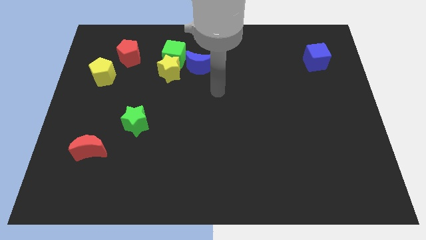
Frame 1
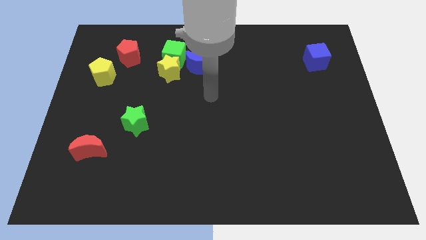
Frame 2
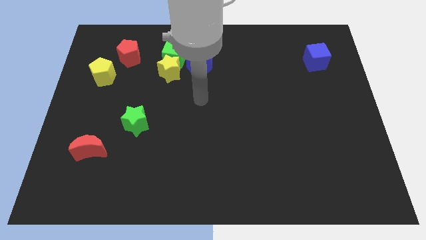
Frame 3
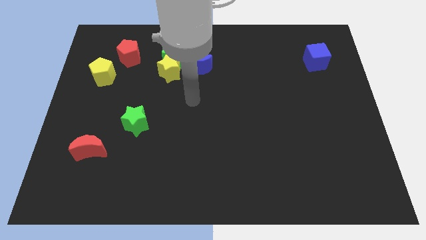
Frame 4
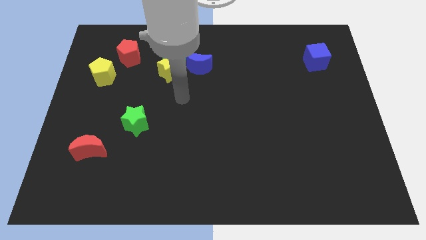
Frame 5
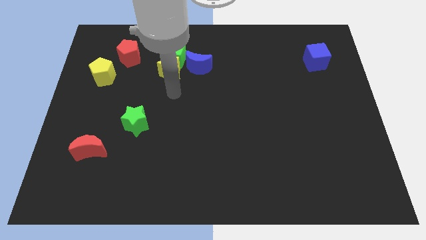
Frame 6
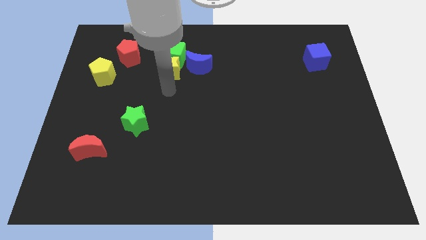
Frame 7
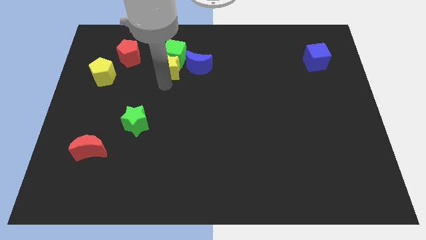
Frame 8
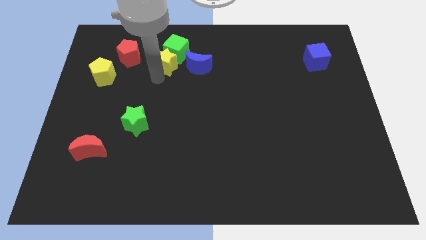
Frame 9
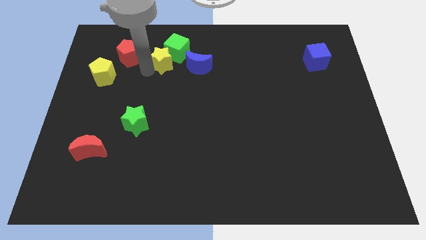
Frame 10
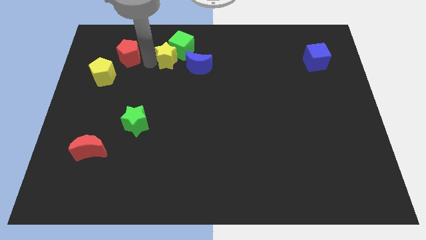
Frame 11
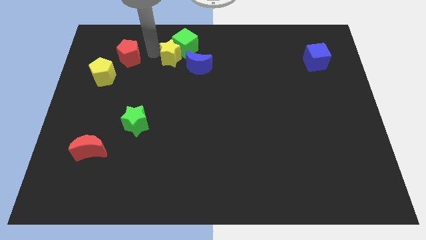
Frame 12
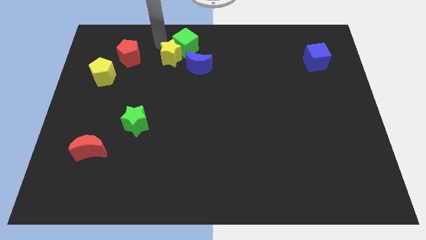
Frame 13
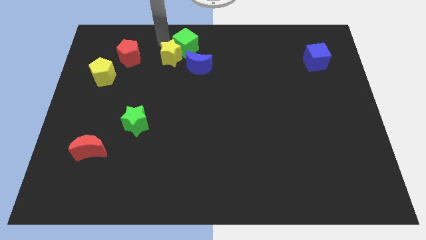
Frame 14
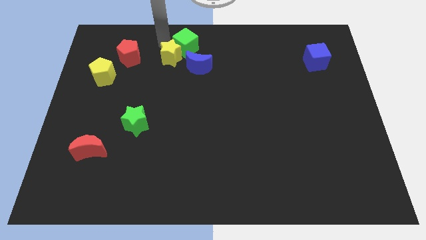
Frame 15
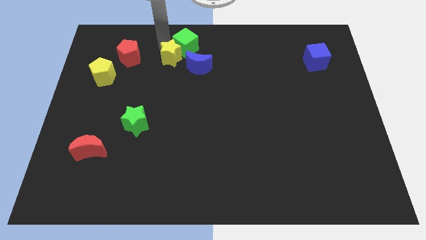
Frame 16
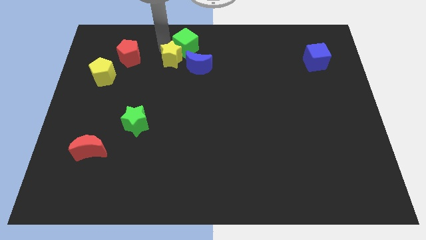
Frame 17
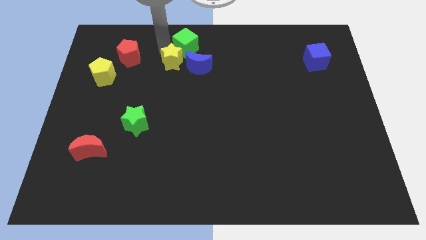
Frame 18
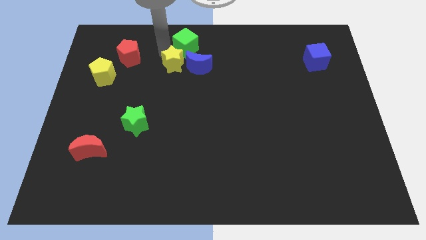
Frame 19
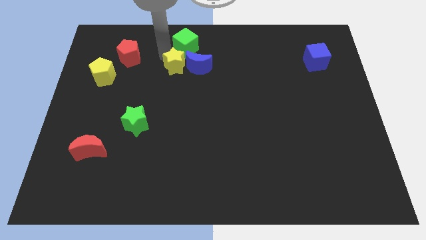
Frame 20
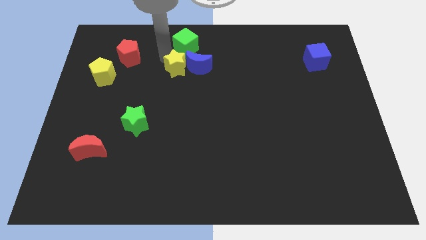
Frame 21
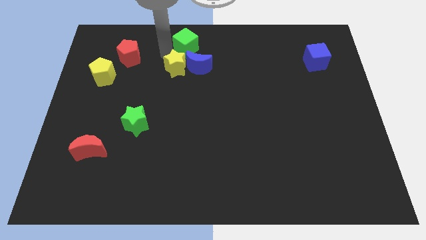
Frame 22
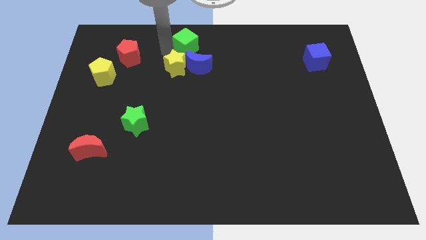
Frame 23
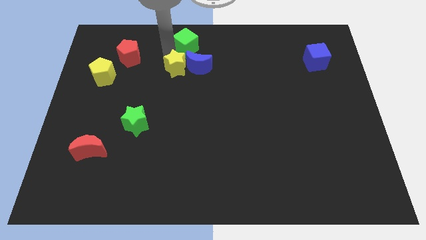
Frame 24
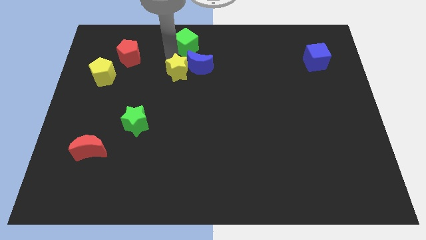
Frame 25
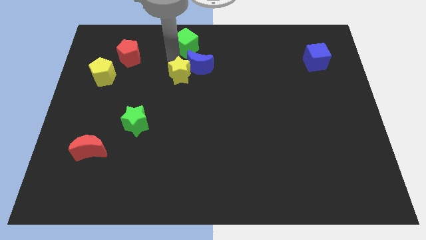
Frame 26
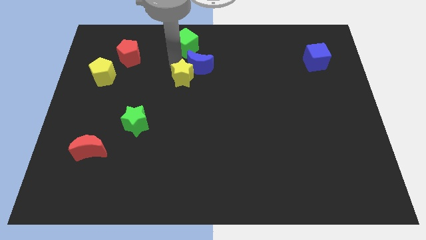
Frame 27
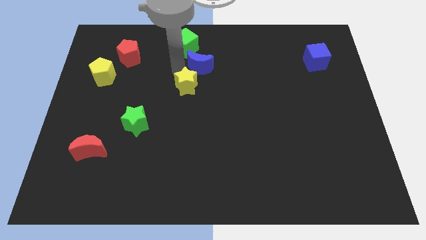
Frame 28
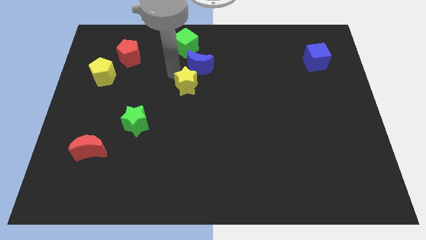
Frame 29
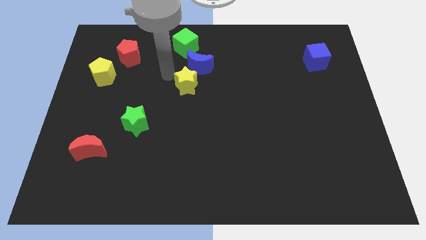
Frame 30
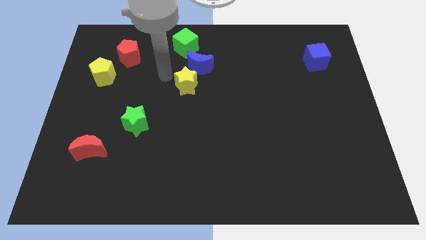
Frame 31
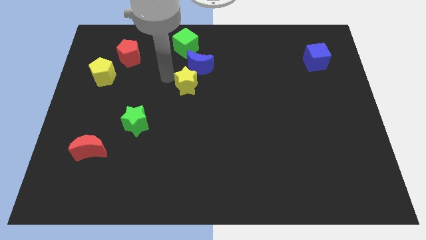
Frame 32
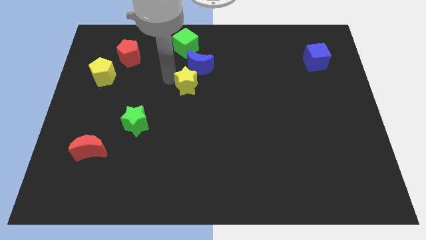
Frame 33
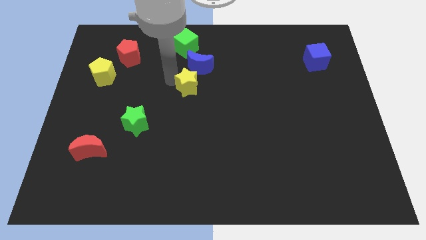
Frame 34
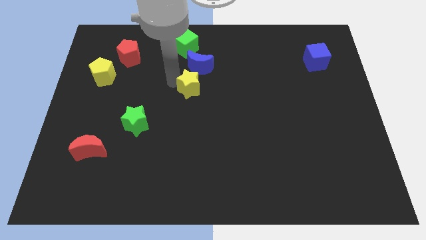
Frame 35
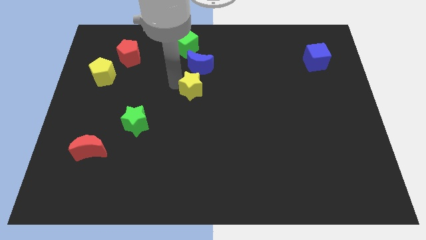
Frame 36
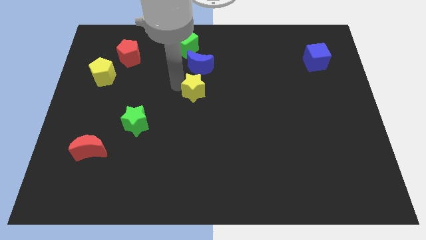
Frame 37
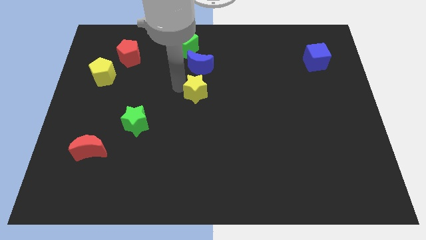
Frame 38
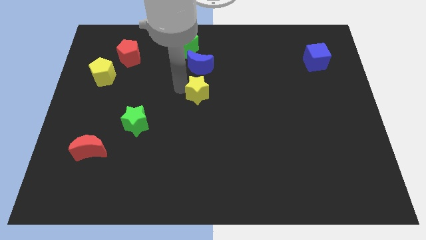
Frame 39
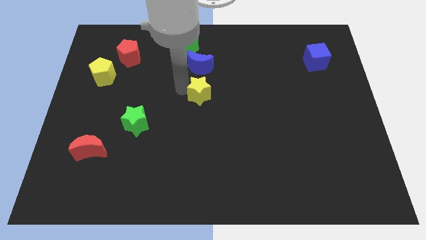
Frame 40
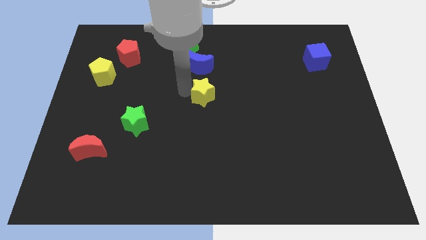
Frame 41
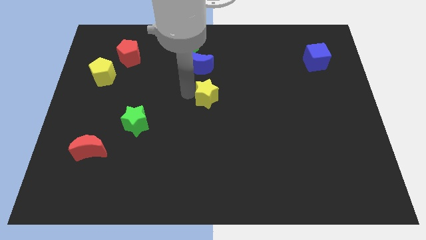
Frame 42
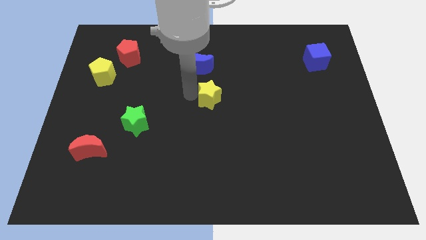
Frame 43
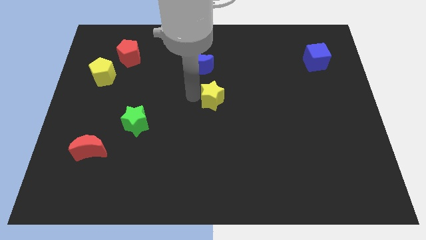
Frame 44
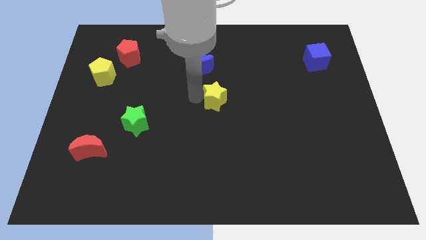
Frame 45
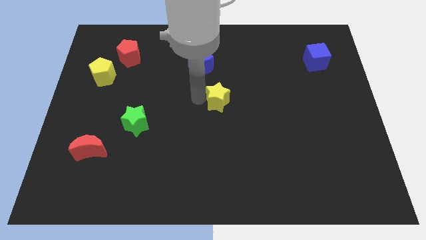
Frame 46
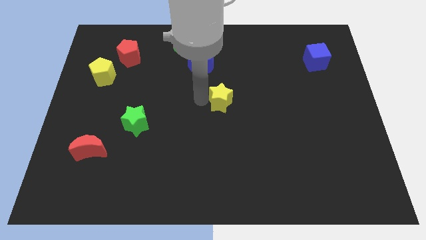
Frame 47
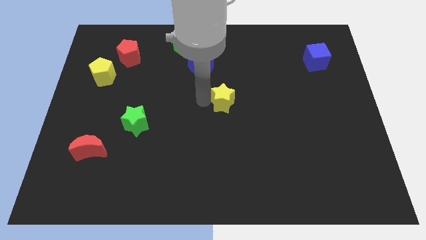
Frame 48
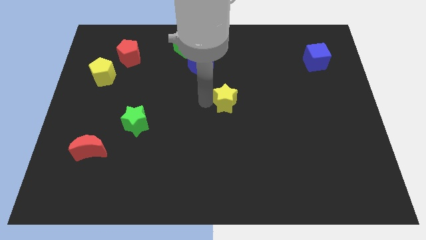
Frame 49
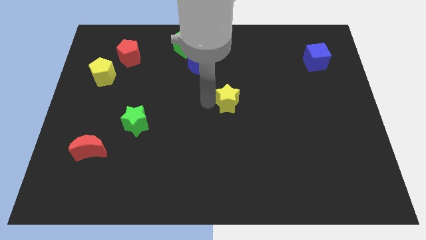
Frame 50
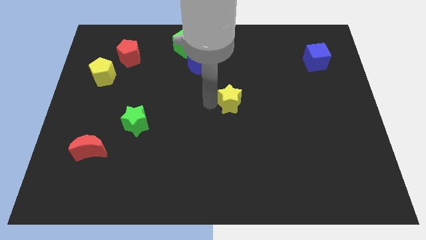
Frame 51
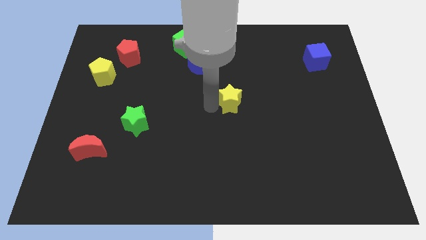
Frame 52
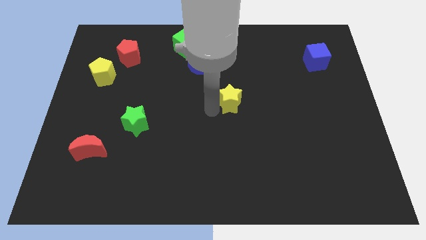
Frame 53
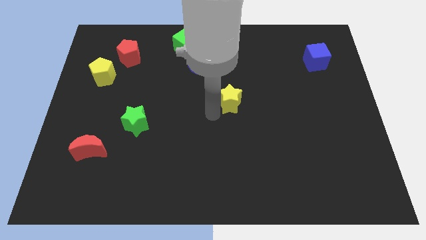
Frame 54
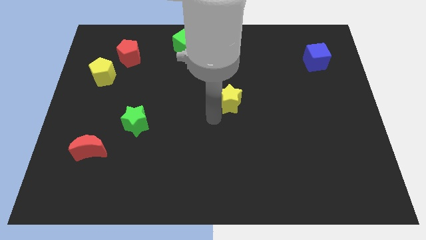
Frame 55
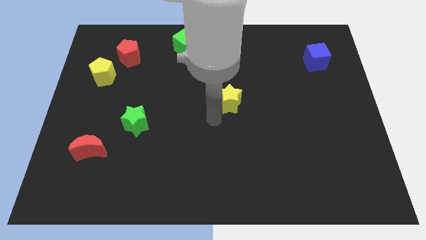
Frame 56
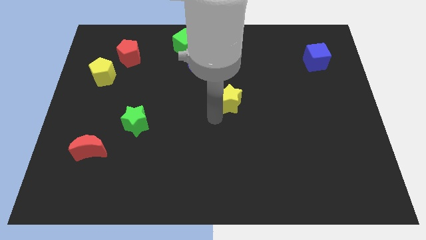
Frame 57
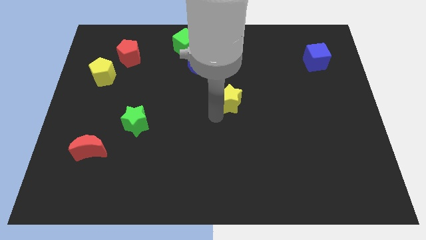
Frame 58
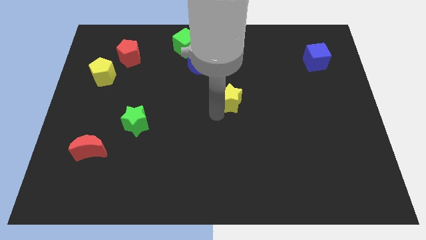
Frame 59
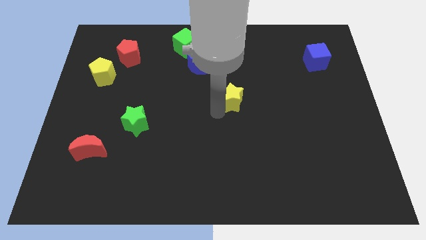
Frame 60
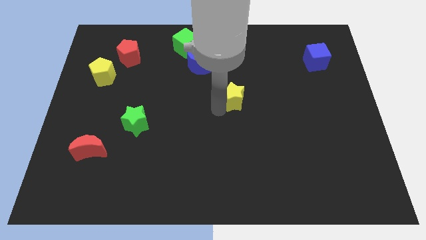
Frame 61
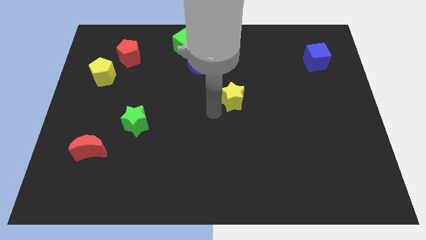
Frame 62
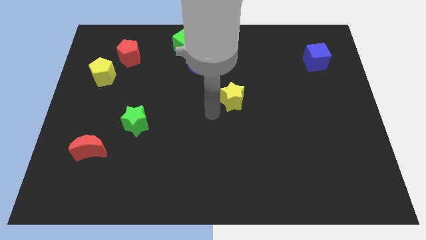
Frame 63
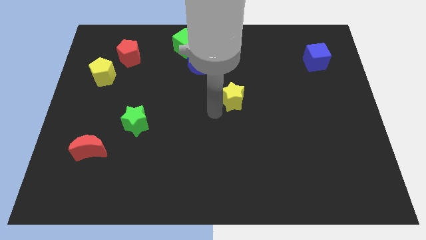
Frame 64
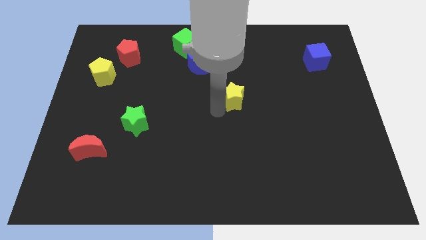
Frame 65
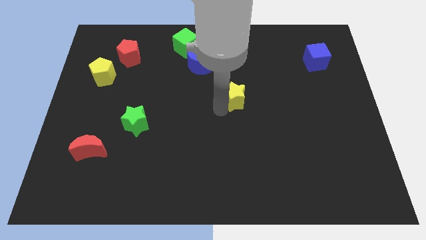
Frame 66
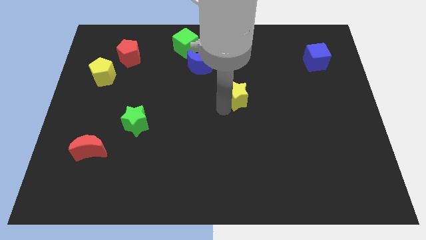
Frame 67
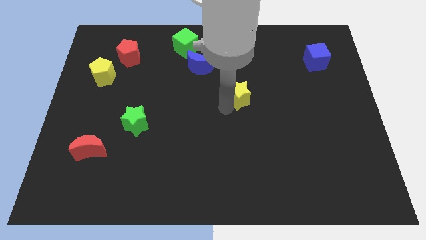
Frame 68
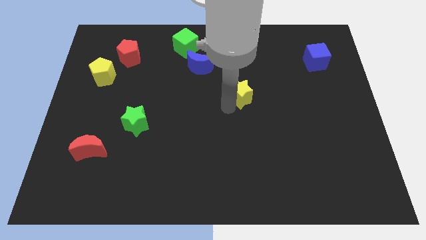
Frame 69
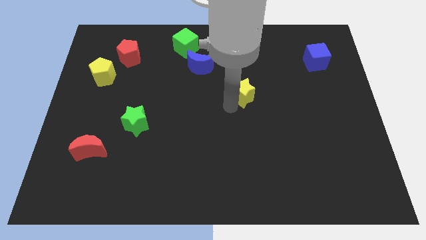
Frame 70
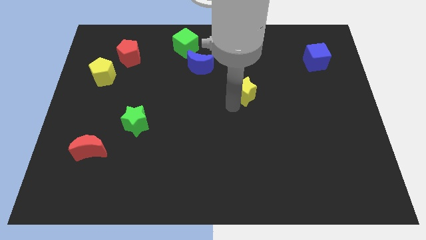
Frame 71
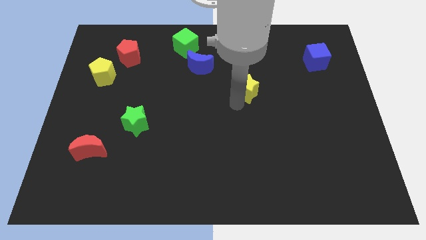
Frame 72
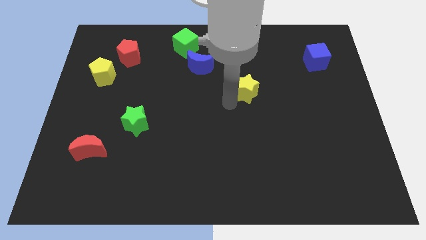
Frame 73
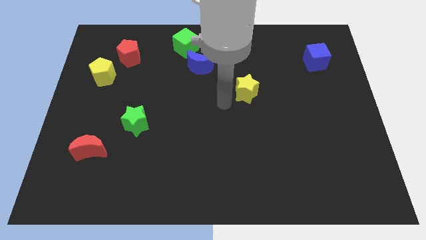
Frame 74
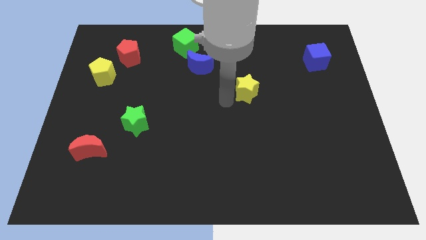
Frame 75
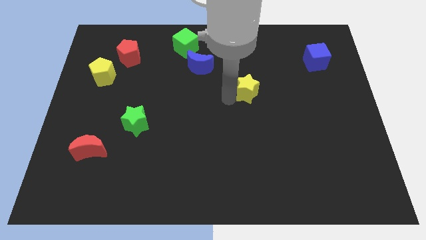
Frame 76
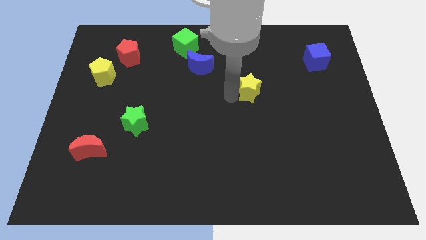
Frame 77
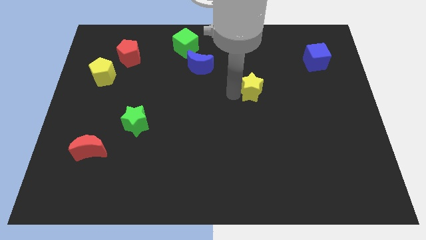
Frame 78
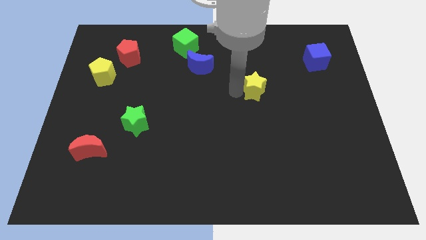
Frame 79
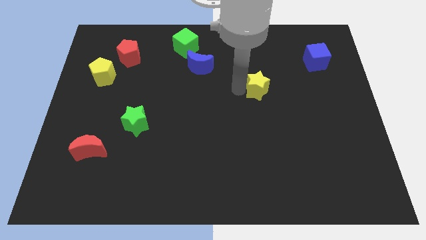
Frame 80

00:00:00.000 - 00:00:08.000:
push the yellow star right
